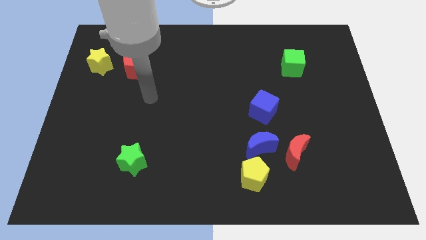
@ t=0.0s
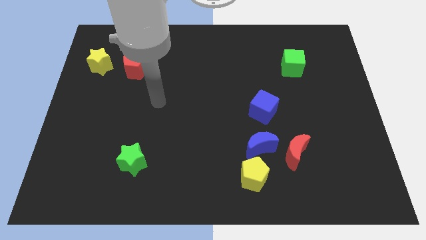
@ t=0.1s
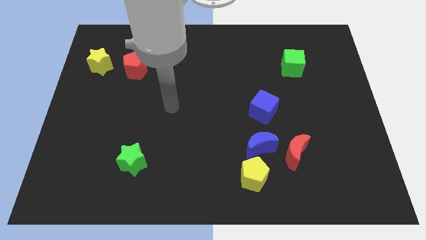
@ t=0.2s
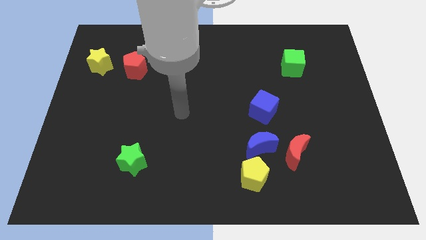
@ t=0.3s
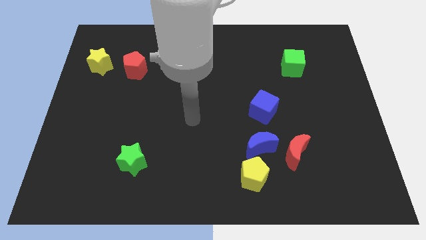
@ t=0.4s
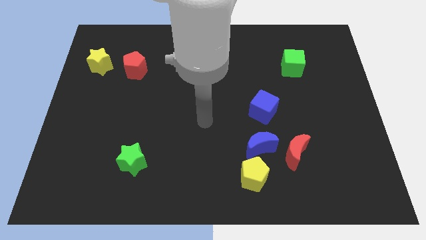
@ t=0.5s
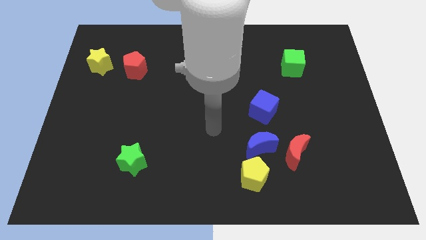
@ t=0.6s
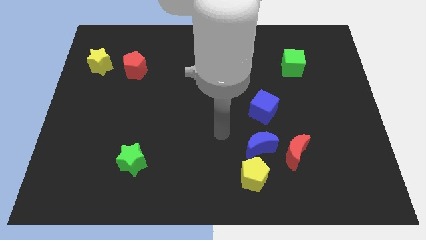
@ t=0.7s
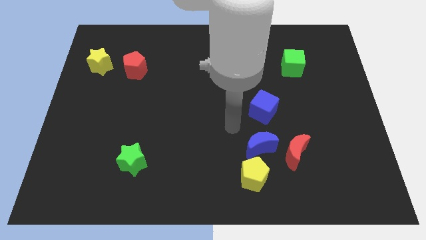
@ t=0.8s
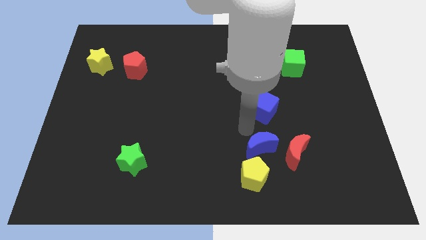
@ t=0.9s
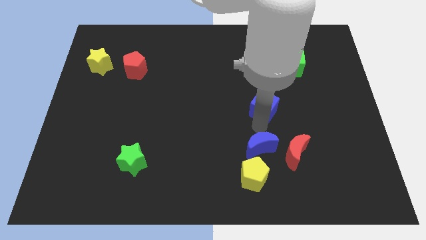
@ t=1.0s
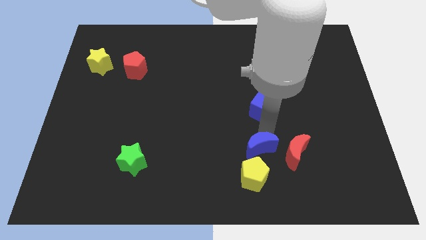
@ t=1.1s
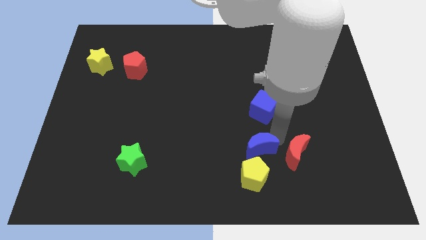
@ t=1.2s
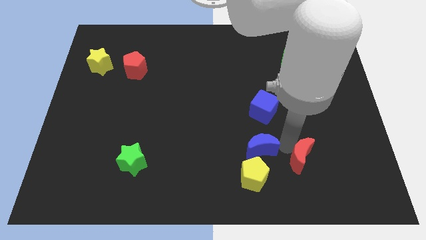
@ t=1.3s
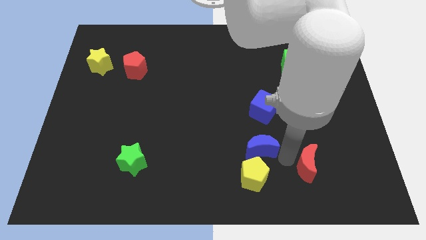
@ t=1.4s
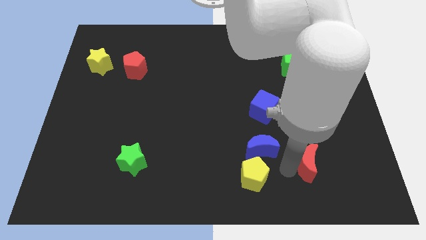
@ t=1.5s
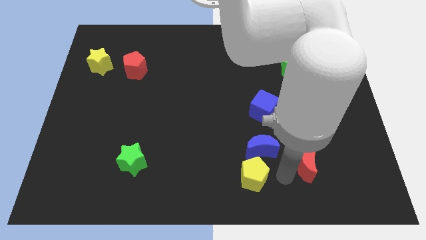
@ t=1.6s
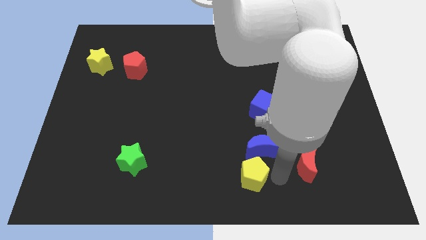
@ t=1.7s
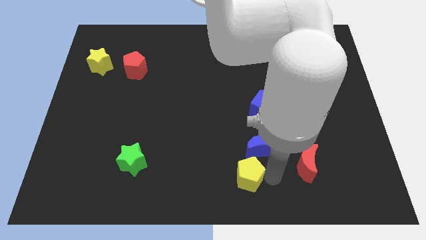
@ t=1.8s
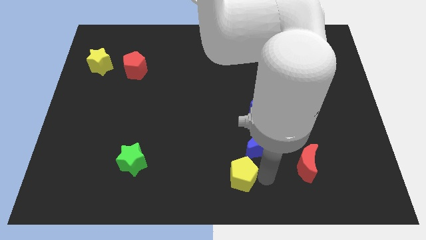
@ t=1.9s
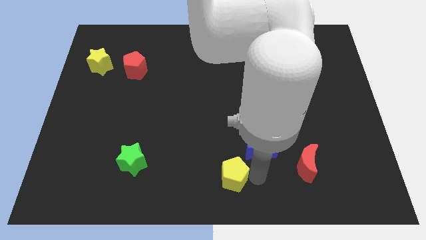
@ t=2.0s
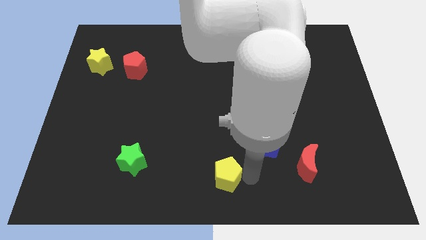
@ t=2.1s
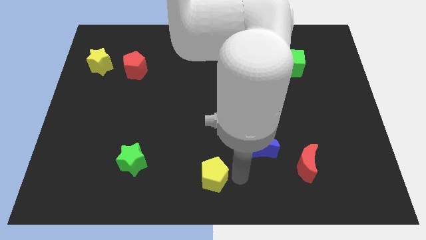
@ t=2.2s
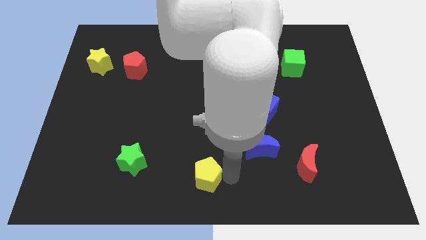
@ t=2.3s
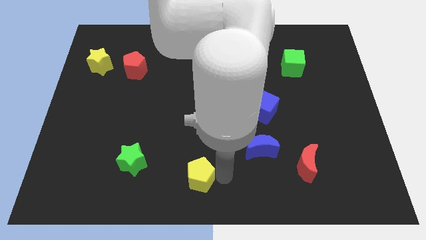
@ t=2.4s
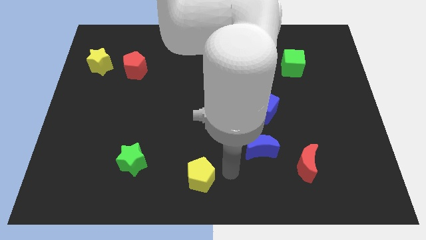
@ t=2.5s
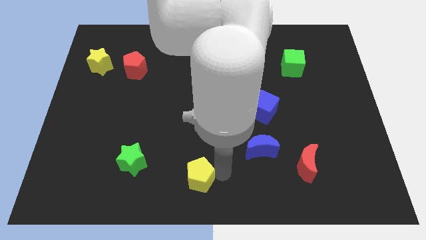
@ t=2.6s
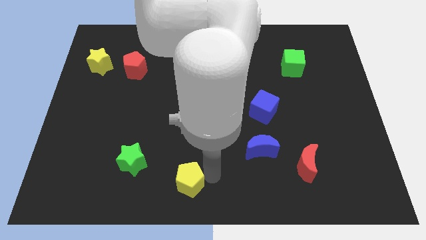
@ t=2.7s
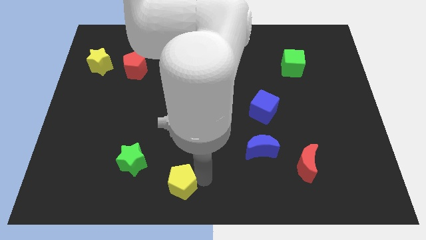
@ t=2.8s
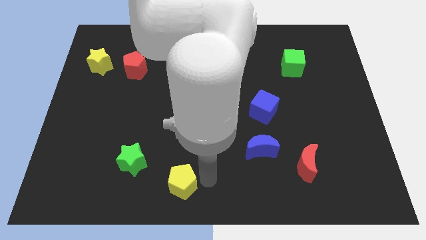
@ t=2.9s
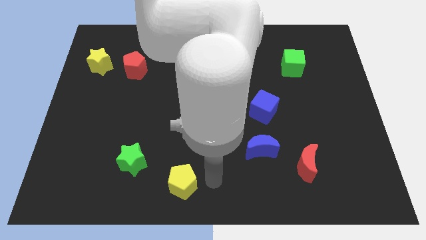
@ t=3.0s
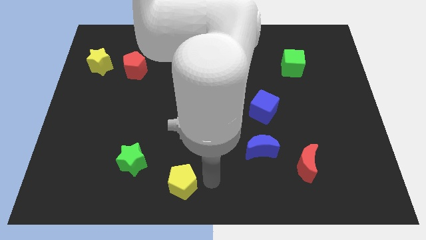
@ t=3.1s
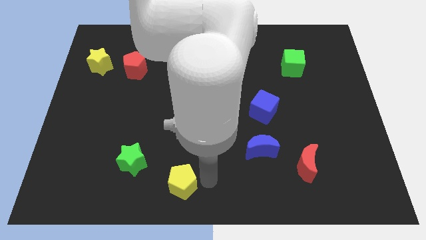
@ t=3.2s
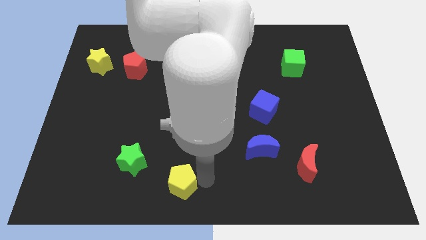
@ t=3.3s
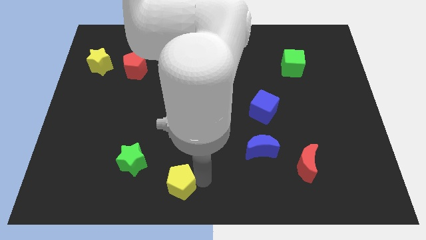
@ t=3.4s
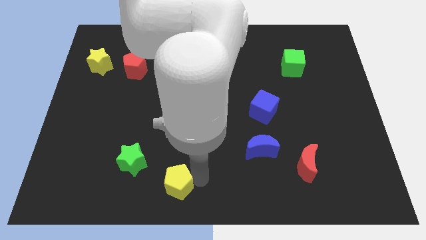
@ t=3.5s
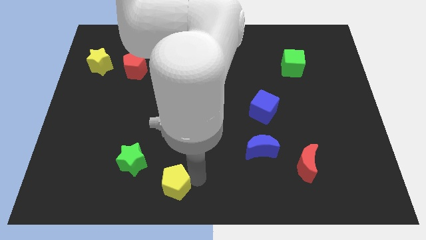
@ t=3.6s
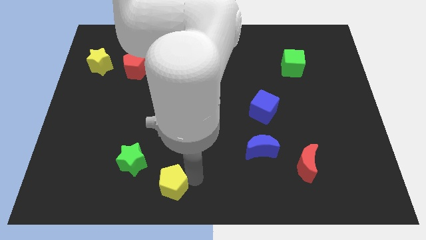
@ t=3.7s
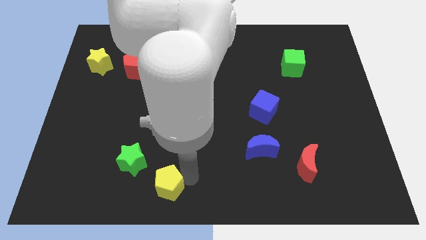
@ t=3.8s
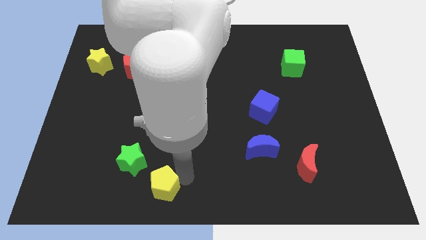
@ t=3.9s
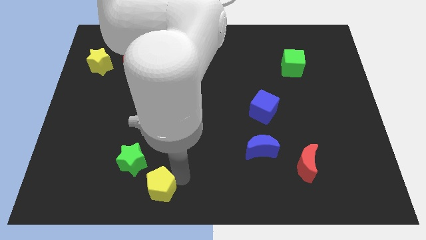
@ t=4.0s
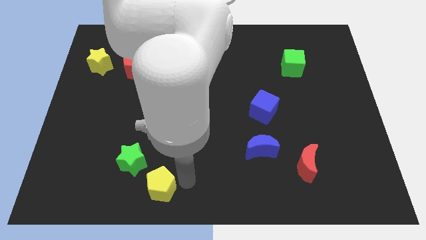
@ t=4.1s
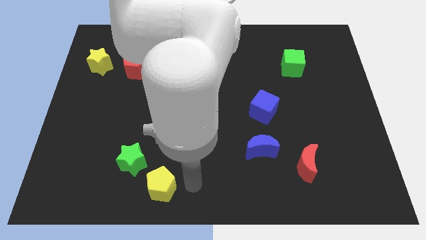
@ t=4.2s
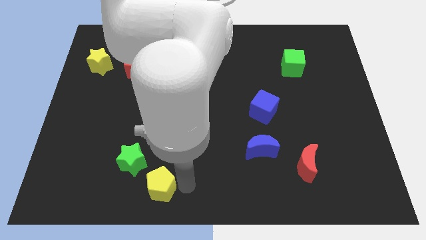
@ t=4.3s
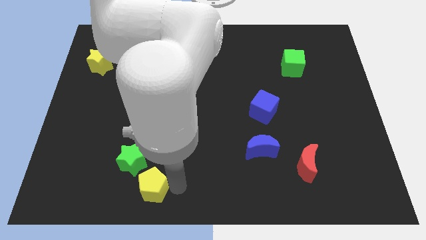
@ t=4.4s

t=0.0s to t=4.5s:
move the yellow pentagon to the left

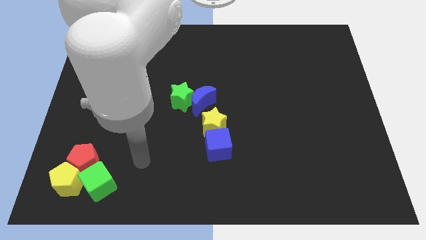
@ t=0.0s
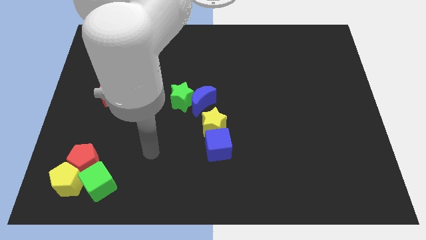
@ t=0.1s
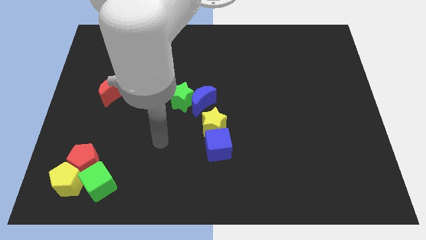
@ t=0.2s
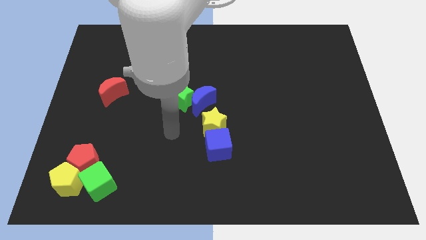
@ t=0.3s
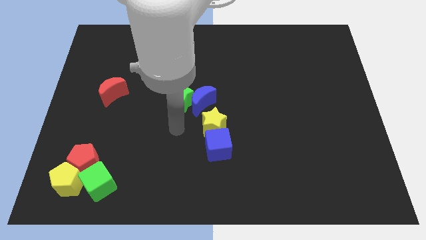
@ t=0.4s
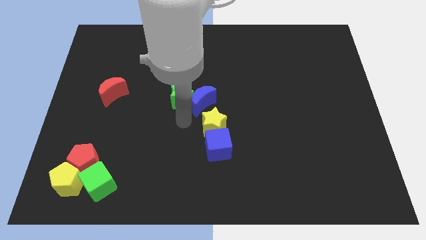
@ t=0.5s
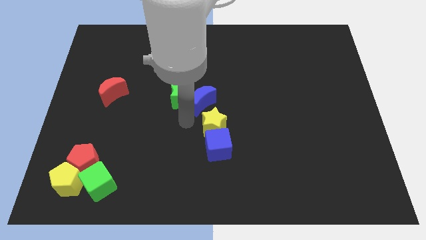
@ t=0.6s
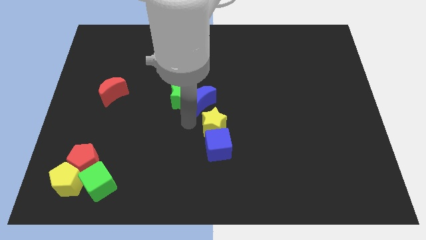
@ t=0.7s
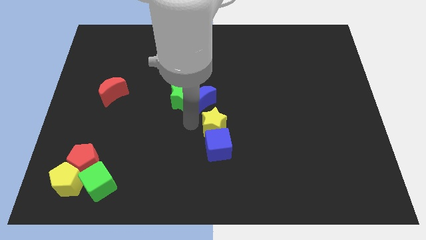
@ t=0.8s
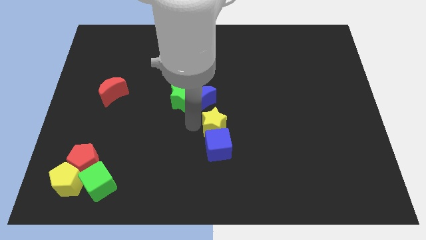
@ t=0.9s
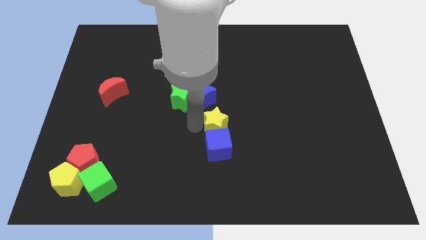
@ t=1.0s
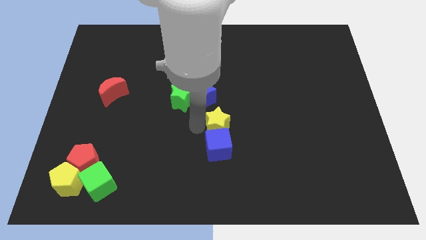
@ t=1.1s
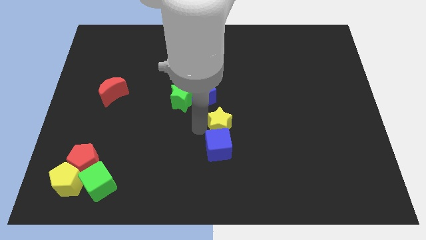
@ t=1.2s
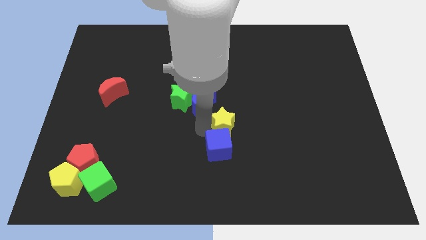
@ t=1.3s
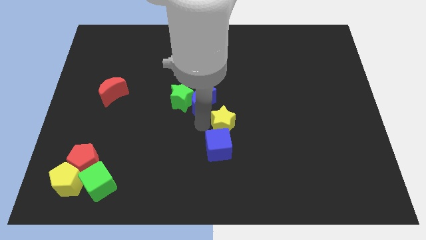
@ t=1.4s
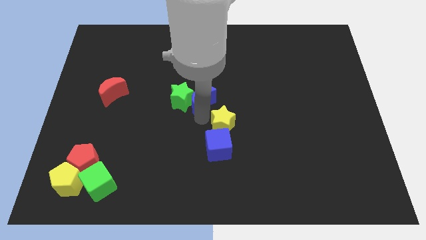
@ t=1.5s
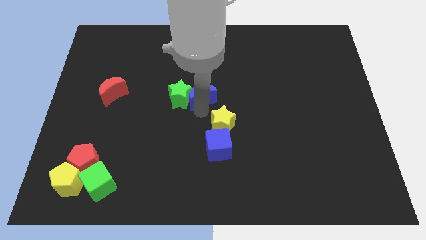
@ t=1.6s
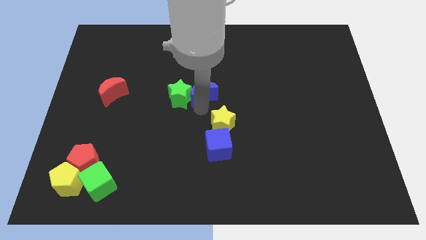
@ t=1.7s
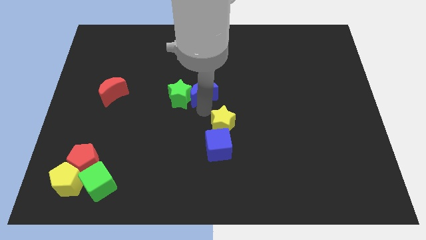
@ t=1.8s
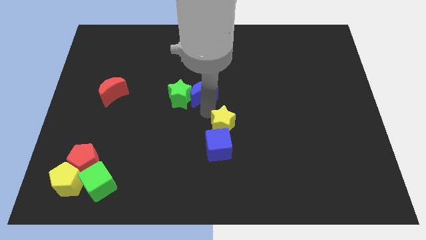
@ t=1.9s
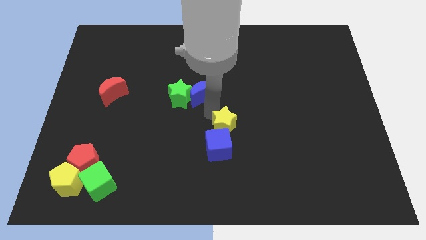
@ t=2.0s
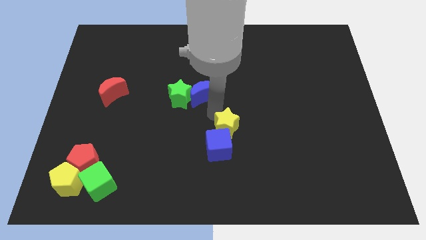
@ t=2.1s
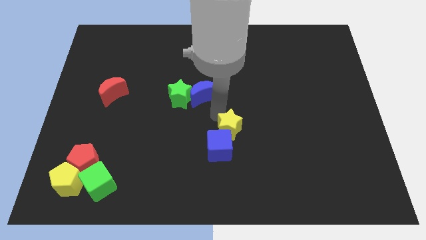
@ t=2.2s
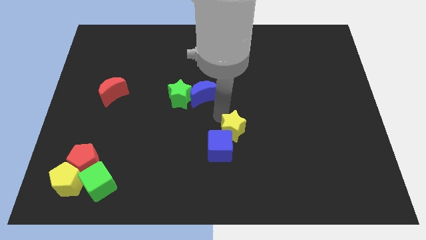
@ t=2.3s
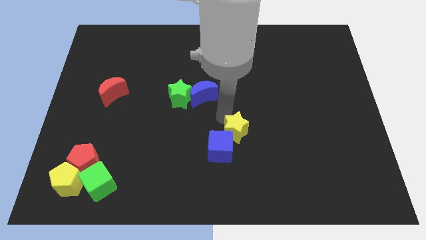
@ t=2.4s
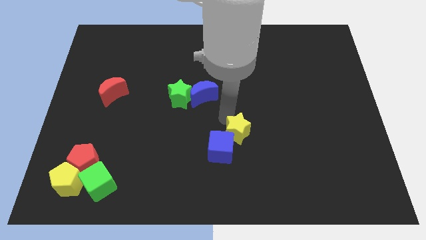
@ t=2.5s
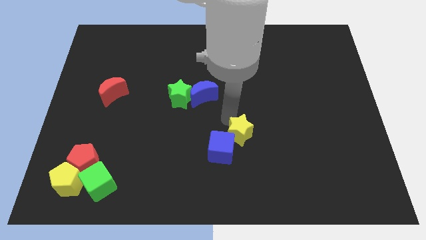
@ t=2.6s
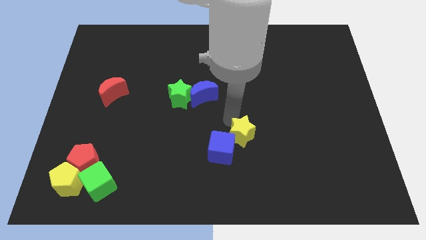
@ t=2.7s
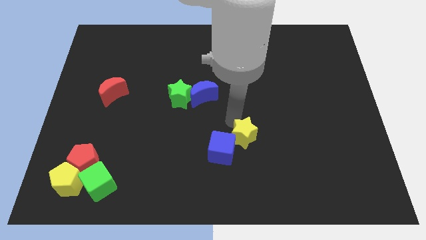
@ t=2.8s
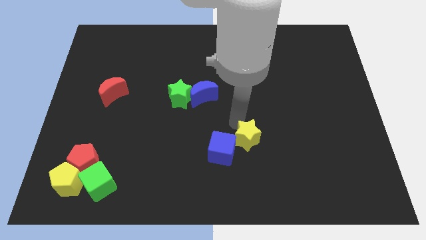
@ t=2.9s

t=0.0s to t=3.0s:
push the yellow star slightly downwards and to the right

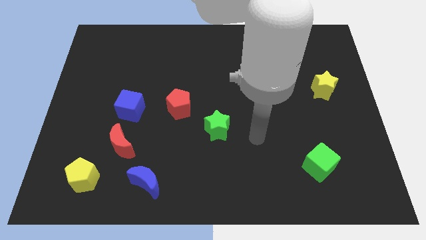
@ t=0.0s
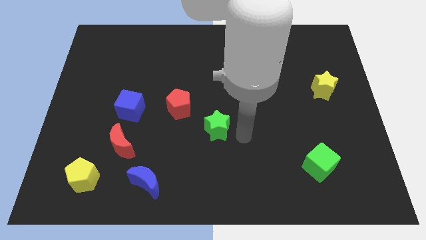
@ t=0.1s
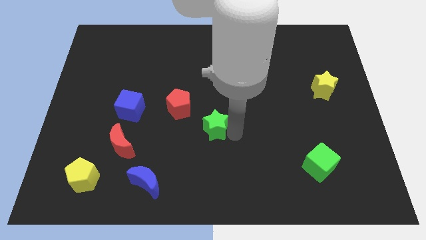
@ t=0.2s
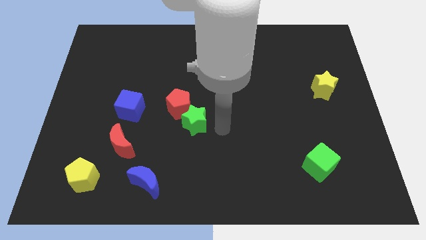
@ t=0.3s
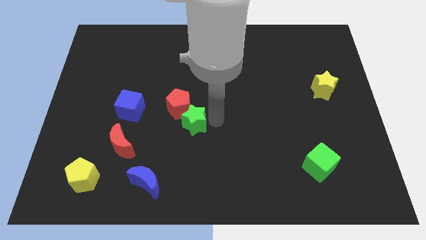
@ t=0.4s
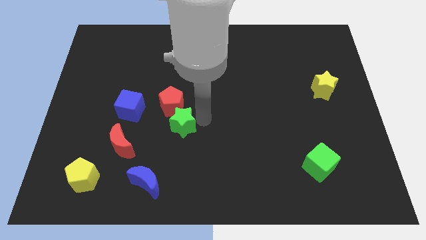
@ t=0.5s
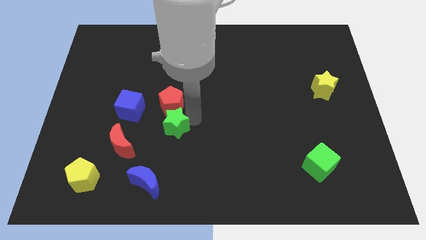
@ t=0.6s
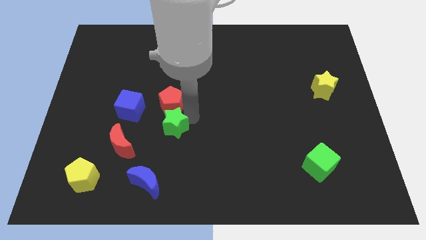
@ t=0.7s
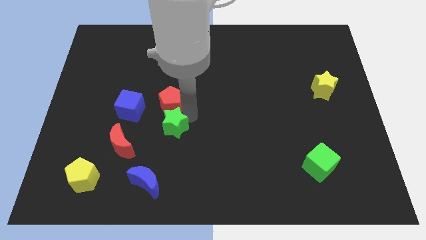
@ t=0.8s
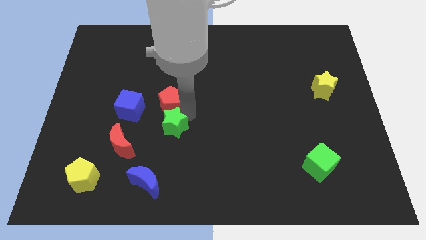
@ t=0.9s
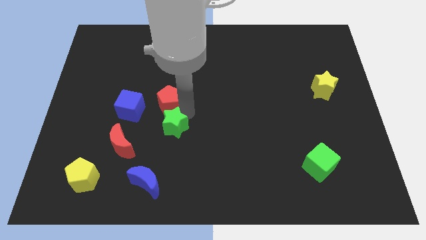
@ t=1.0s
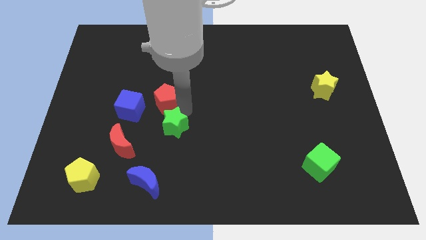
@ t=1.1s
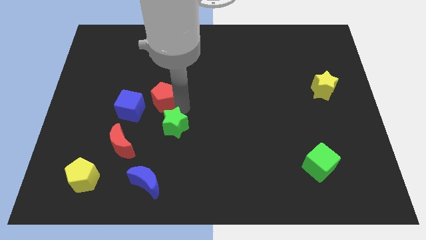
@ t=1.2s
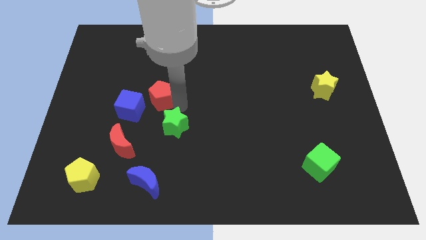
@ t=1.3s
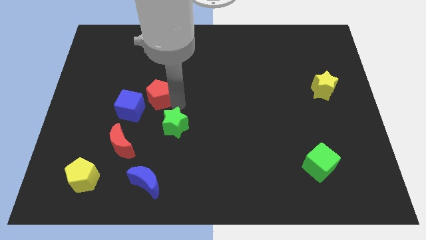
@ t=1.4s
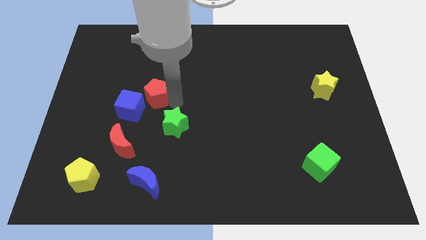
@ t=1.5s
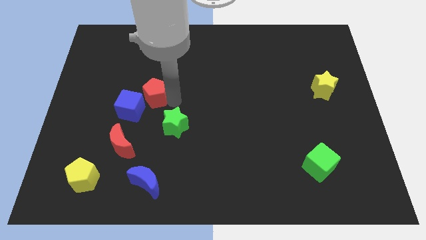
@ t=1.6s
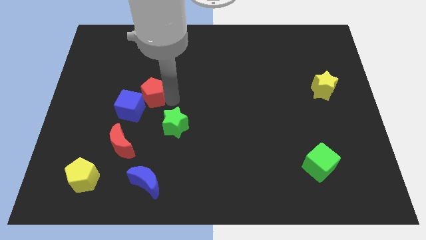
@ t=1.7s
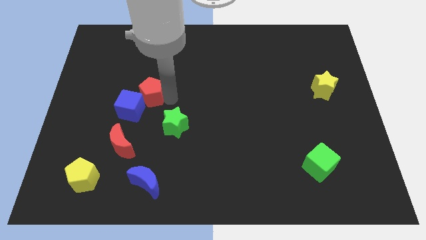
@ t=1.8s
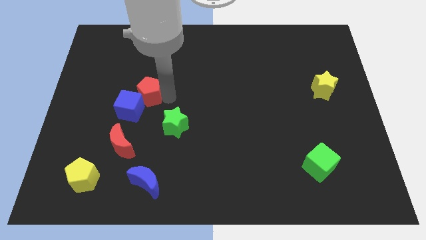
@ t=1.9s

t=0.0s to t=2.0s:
push the red pentagon somewhat left
